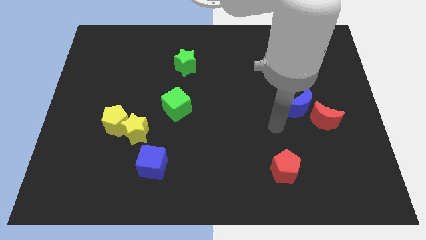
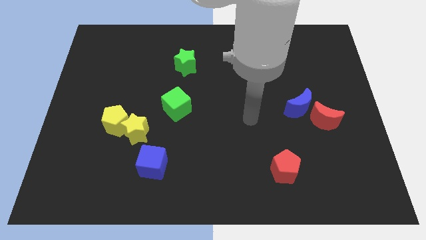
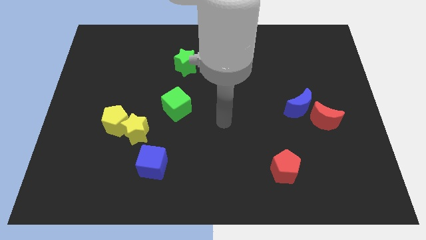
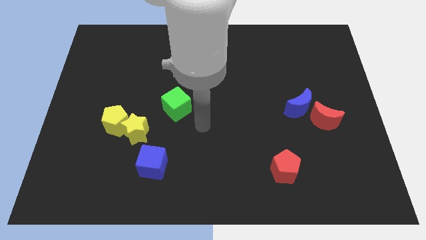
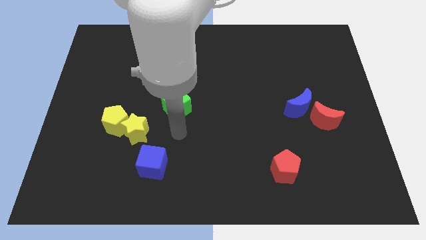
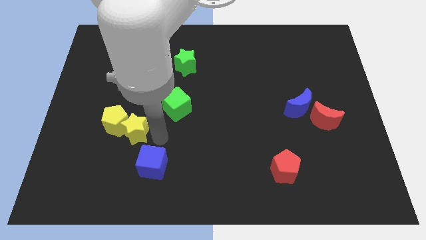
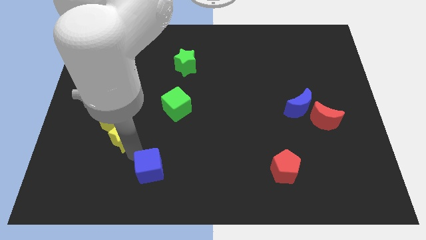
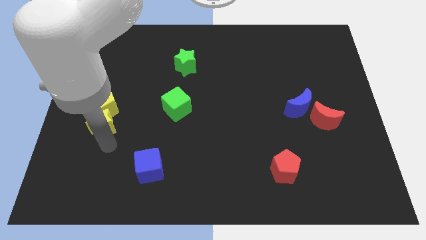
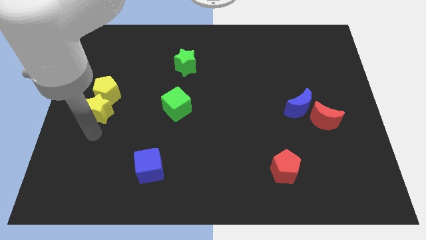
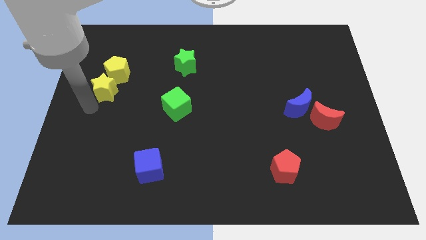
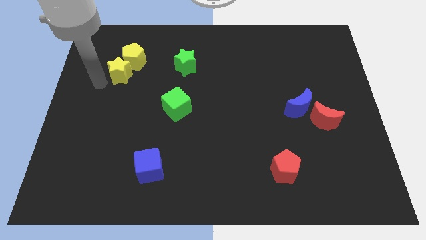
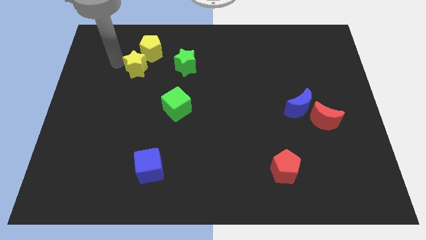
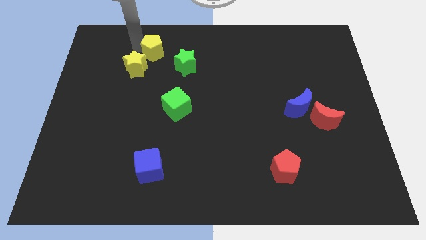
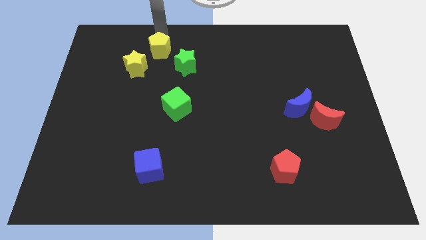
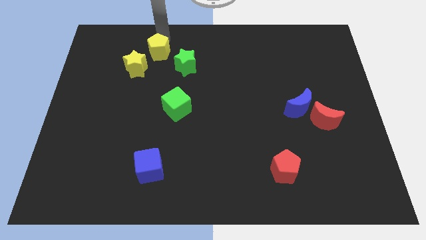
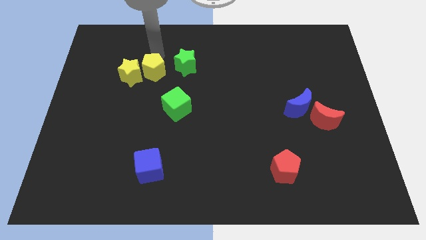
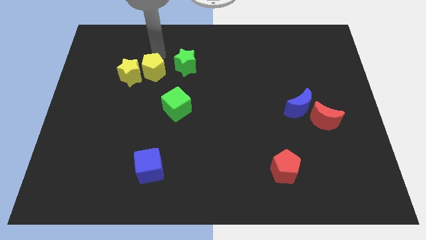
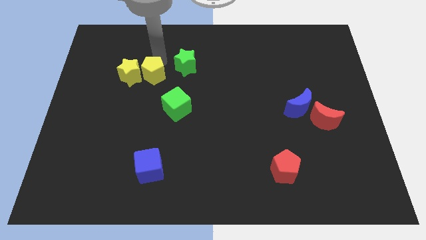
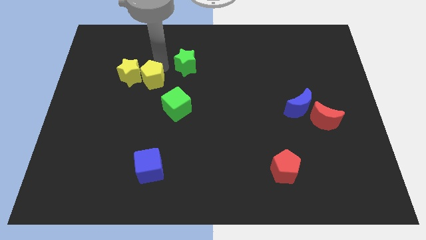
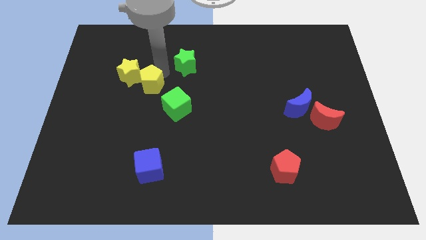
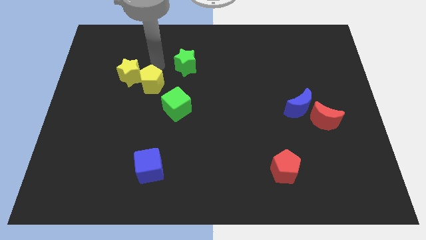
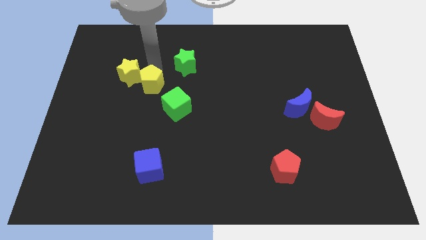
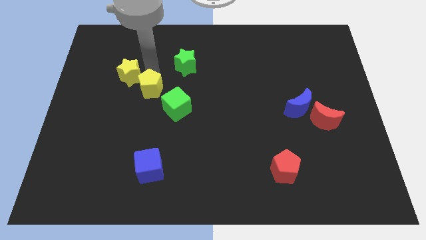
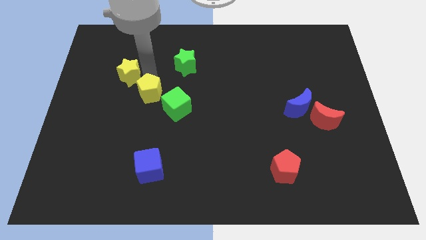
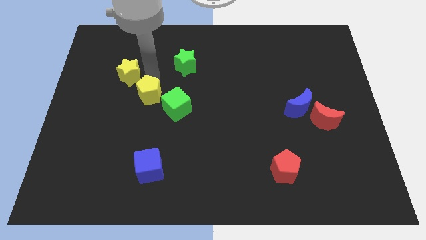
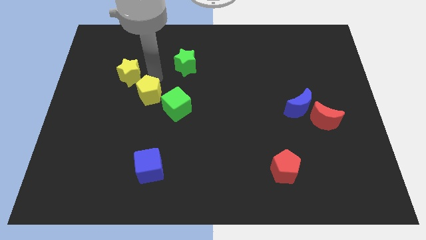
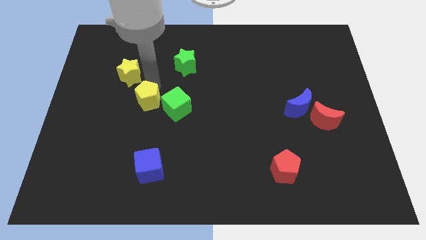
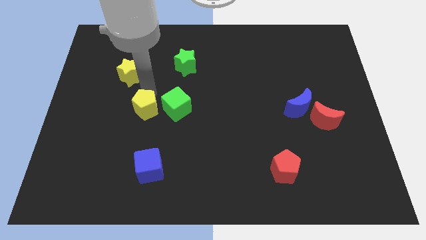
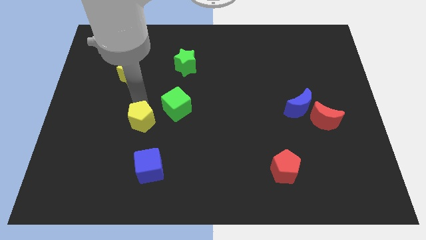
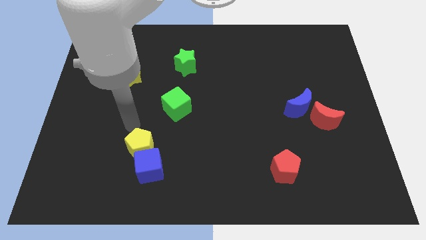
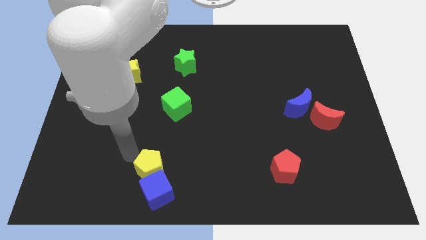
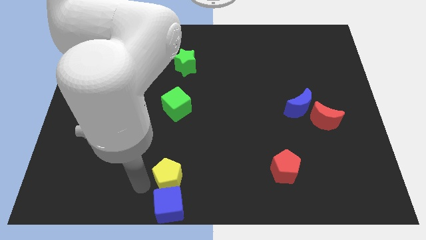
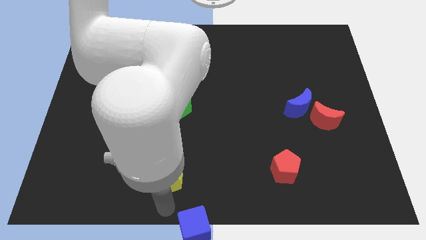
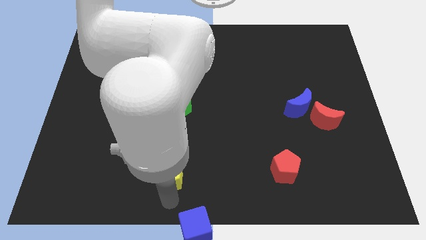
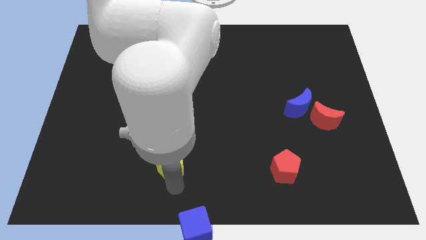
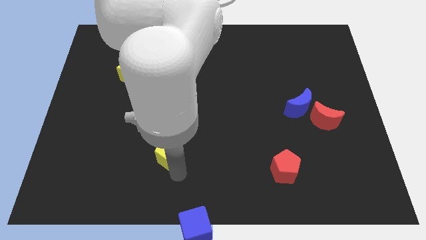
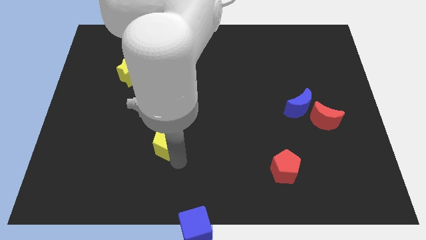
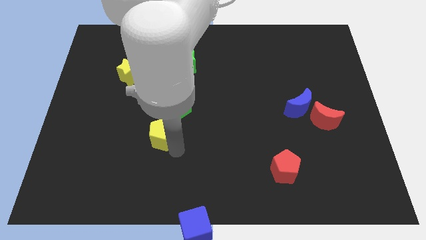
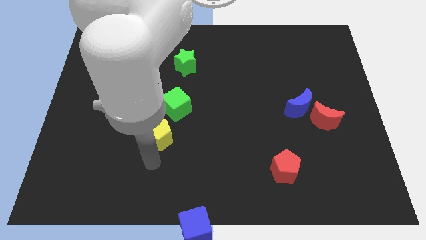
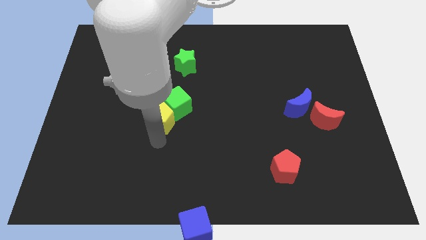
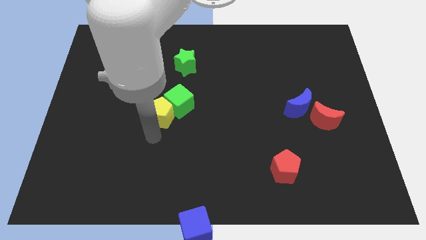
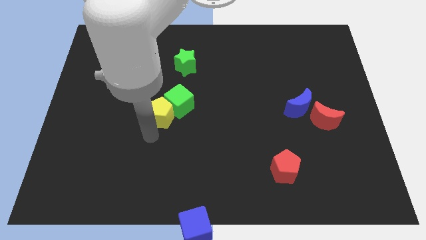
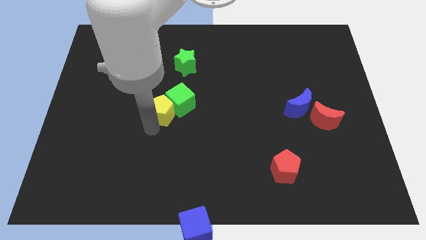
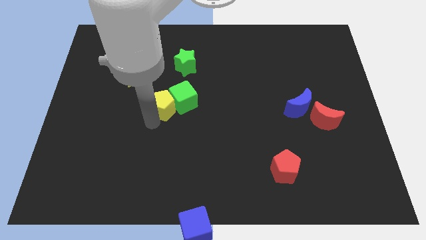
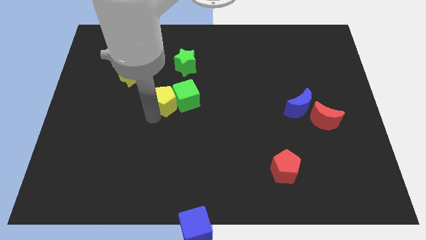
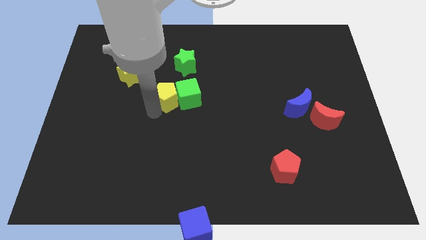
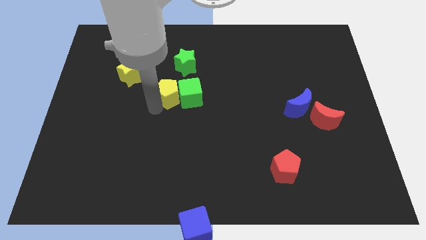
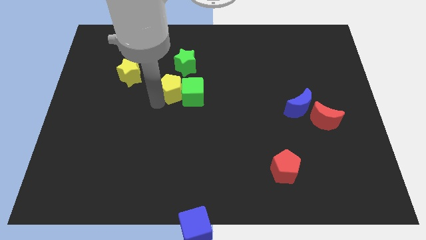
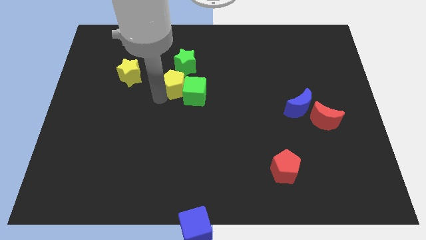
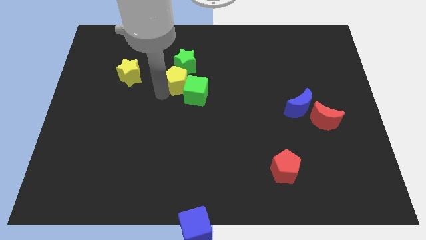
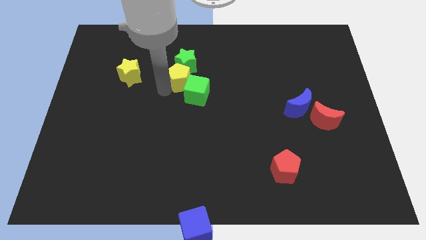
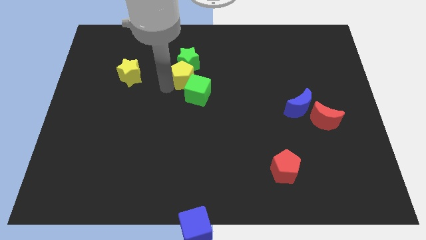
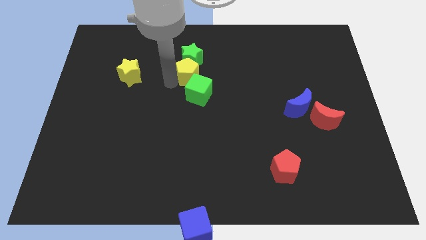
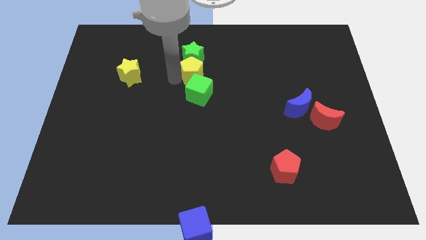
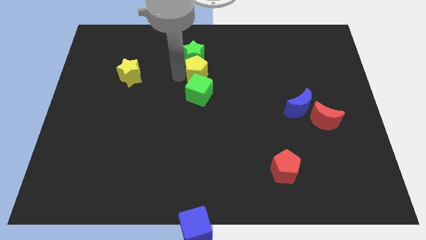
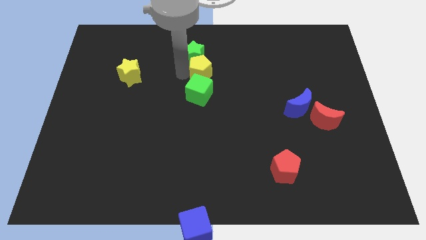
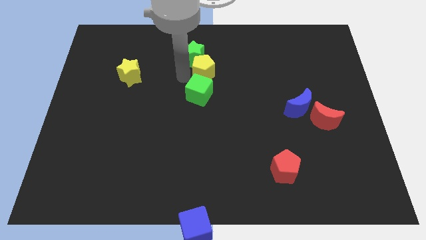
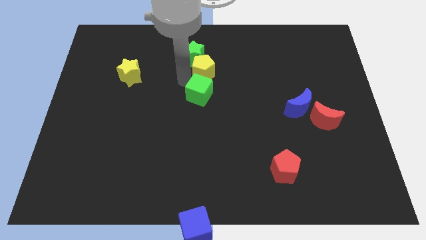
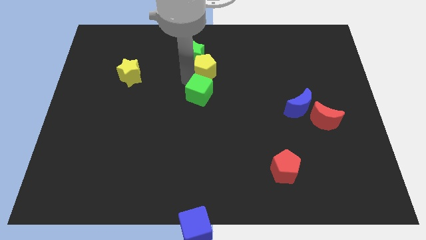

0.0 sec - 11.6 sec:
slide the yellow pentagon right of the green star
